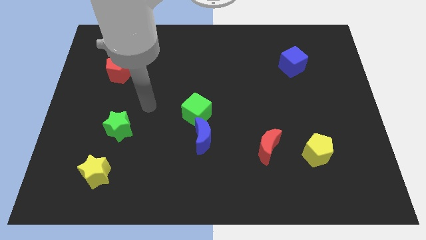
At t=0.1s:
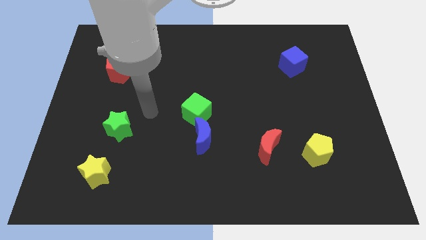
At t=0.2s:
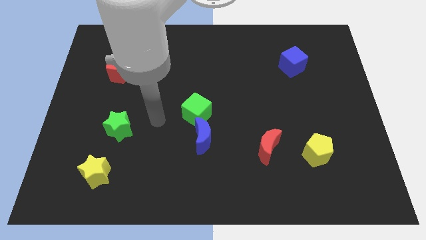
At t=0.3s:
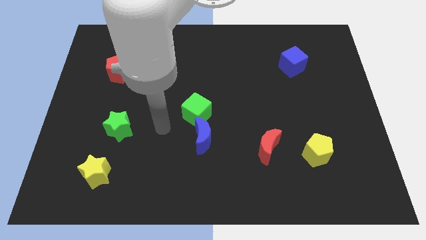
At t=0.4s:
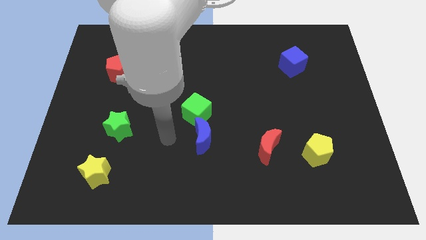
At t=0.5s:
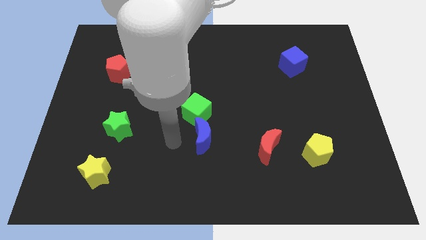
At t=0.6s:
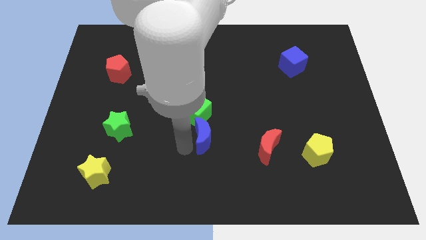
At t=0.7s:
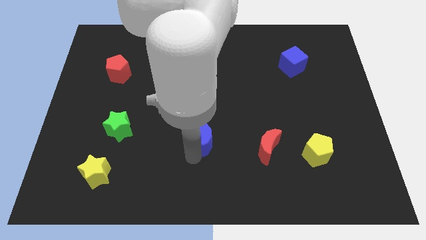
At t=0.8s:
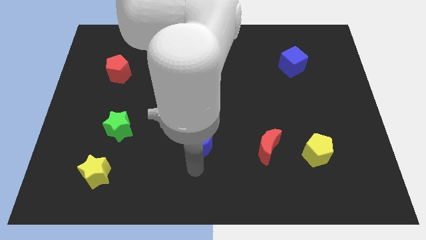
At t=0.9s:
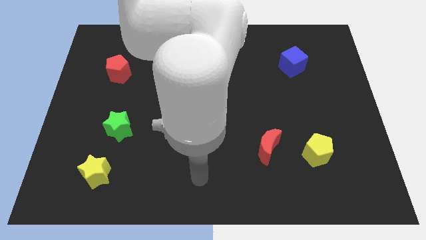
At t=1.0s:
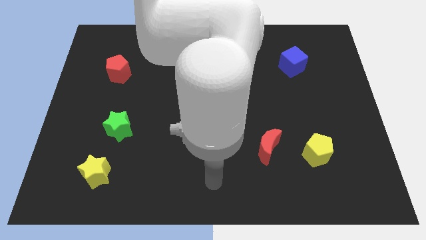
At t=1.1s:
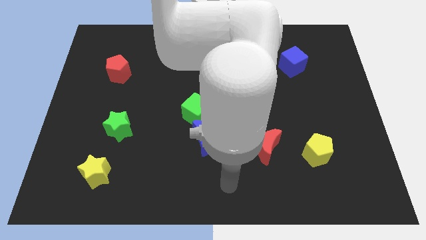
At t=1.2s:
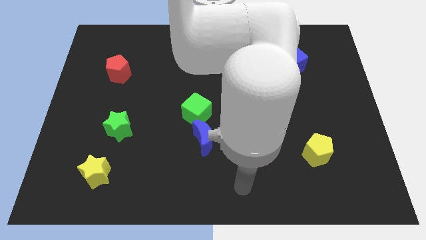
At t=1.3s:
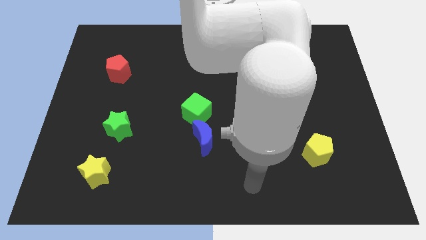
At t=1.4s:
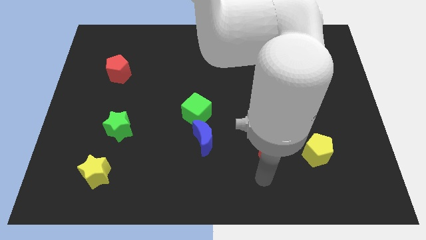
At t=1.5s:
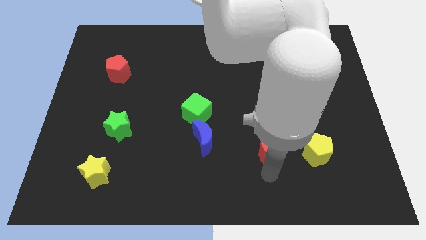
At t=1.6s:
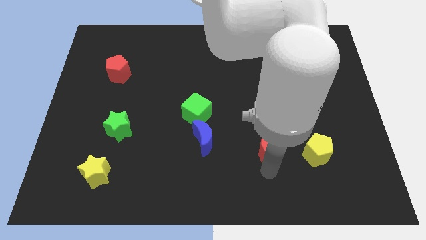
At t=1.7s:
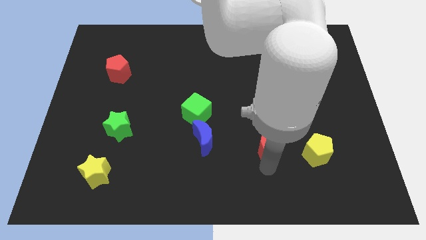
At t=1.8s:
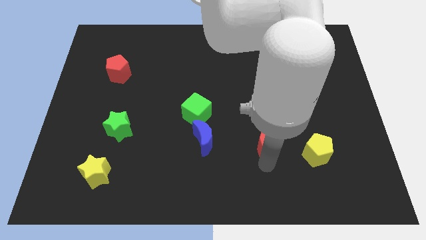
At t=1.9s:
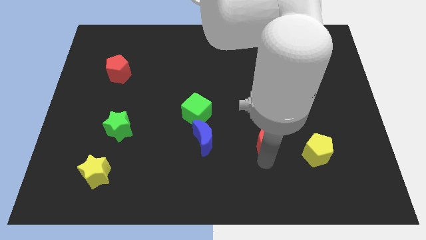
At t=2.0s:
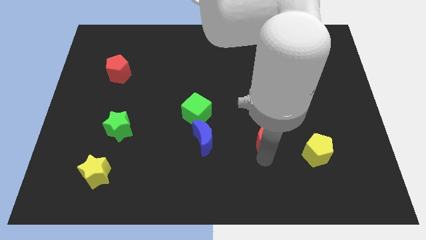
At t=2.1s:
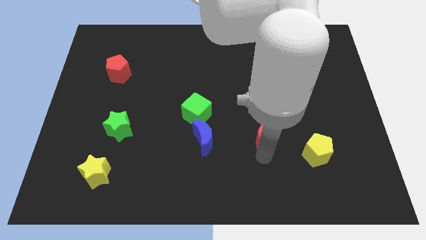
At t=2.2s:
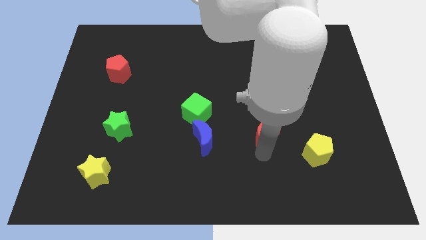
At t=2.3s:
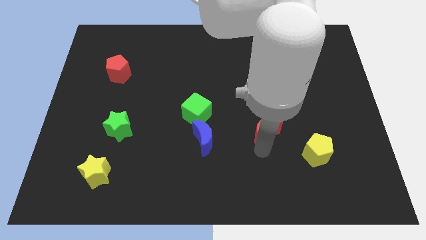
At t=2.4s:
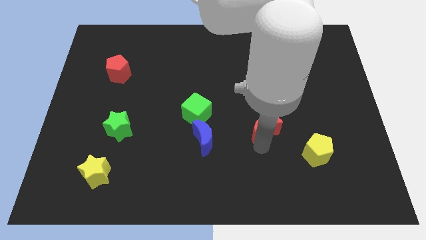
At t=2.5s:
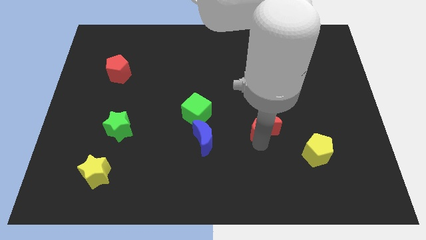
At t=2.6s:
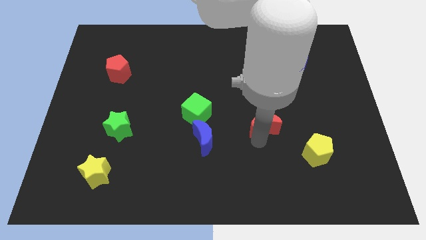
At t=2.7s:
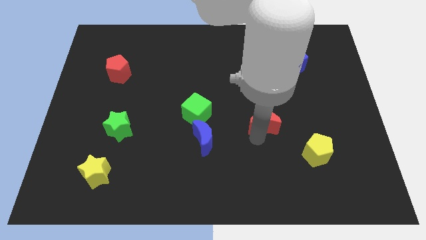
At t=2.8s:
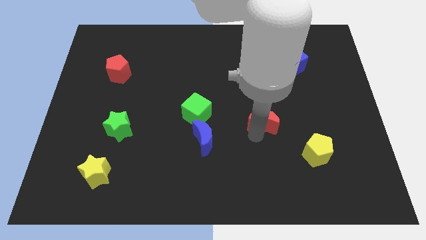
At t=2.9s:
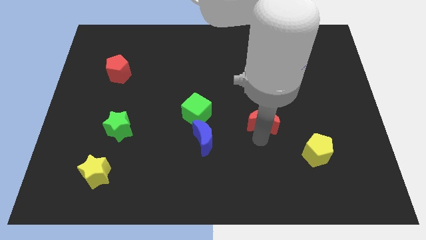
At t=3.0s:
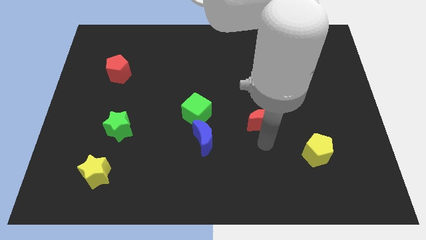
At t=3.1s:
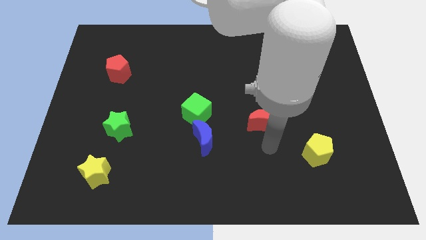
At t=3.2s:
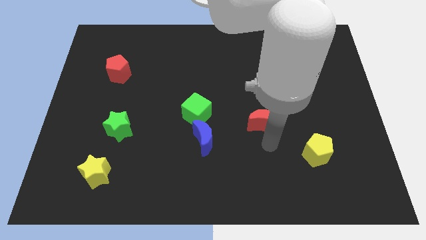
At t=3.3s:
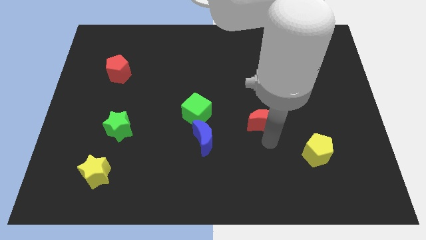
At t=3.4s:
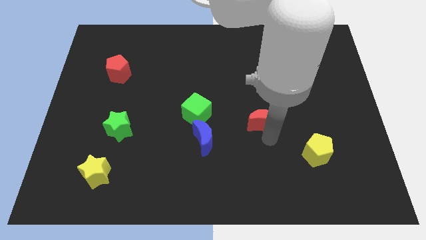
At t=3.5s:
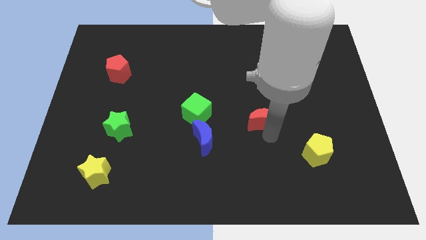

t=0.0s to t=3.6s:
slightly slide the red moon upwards

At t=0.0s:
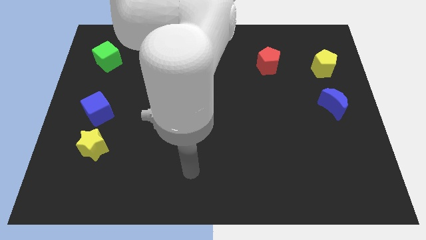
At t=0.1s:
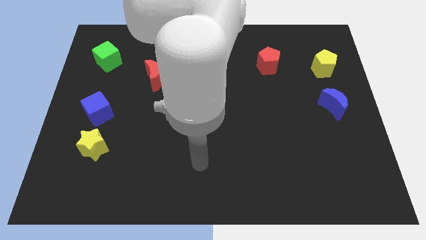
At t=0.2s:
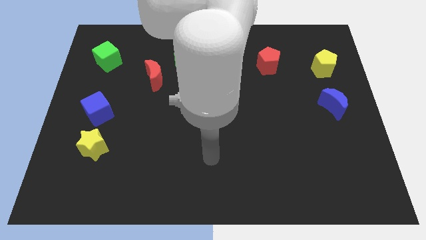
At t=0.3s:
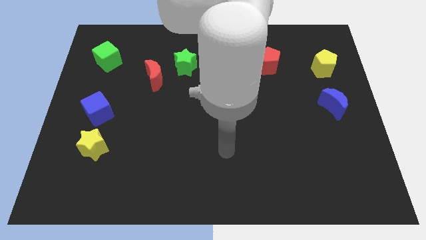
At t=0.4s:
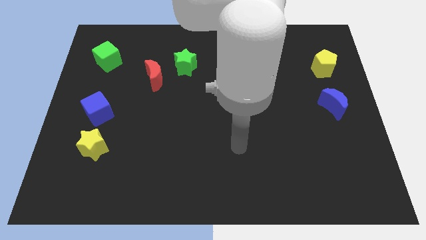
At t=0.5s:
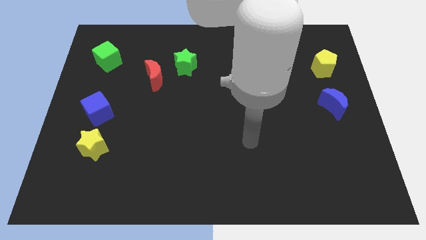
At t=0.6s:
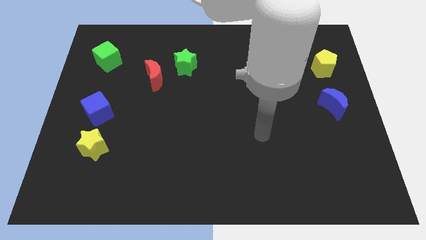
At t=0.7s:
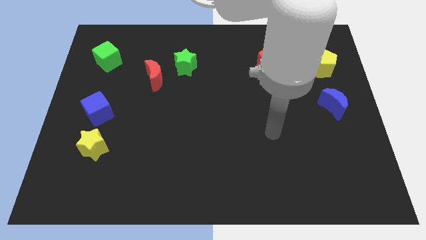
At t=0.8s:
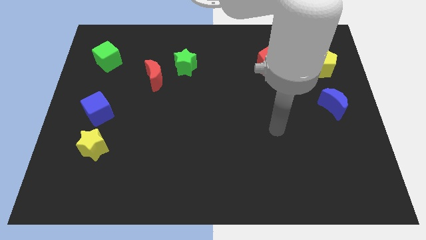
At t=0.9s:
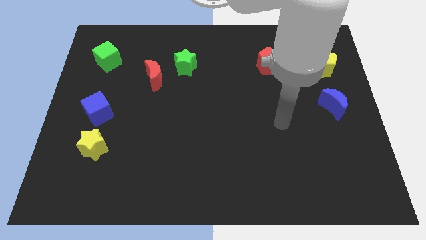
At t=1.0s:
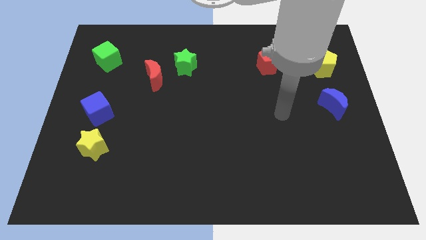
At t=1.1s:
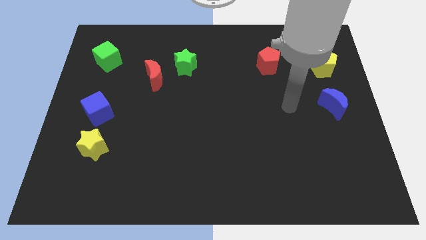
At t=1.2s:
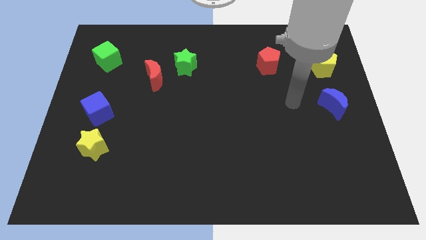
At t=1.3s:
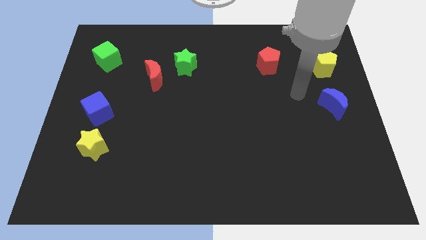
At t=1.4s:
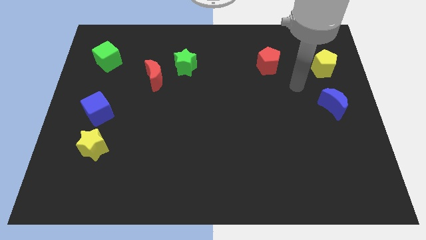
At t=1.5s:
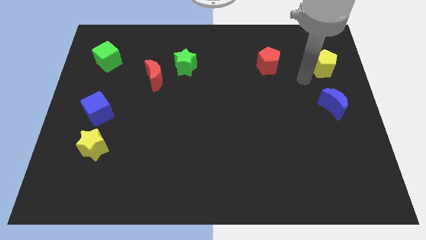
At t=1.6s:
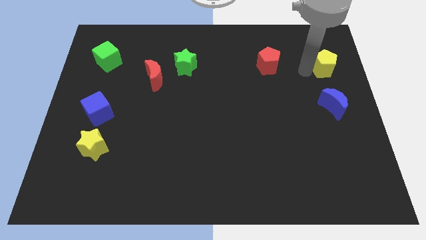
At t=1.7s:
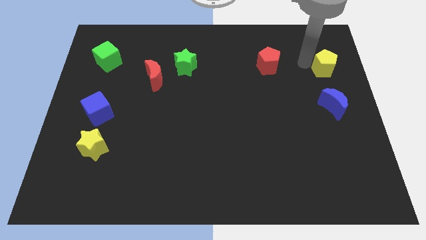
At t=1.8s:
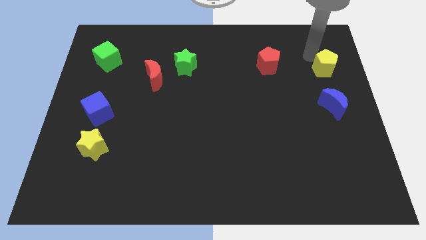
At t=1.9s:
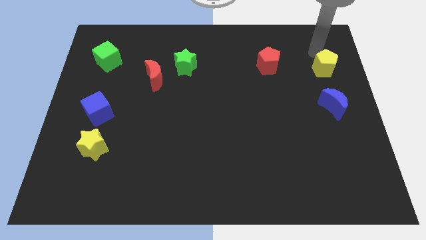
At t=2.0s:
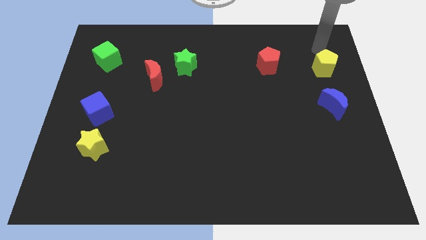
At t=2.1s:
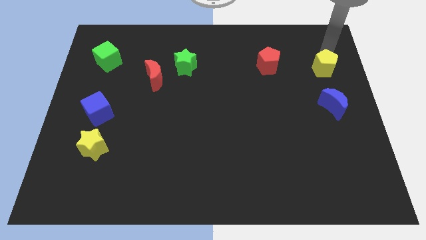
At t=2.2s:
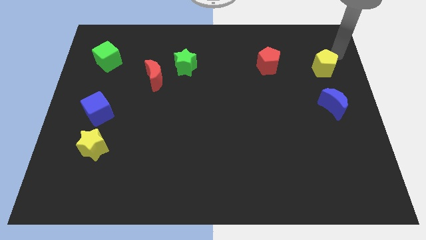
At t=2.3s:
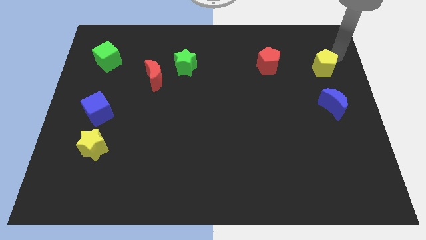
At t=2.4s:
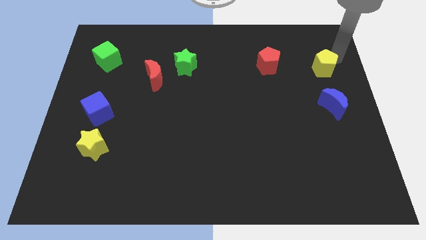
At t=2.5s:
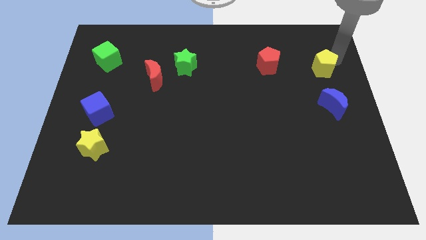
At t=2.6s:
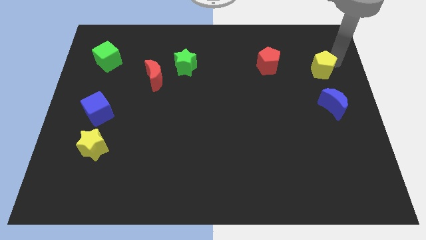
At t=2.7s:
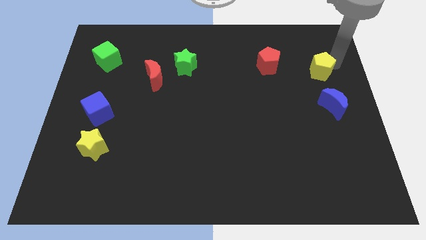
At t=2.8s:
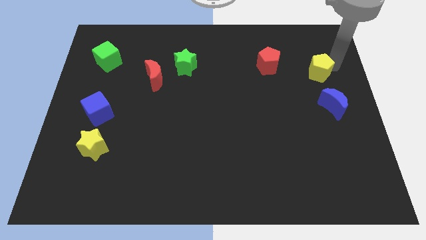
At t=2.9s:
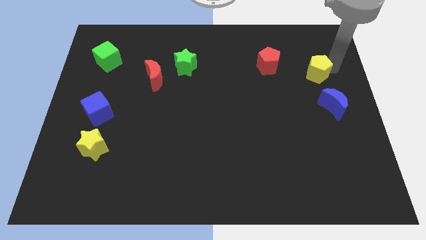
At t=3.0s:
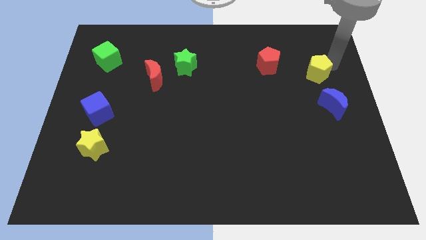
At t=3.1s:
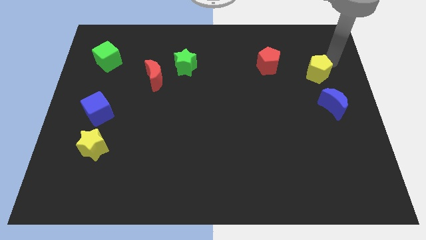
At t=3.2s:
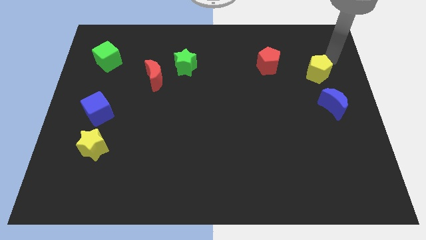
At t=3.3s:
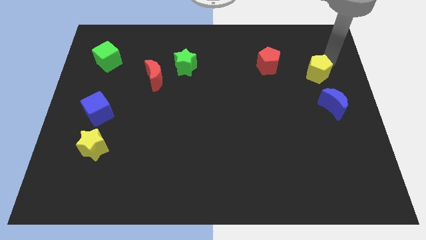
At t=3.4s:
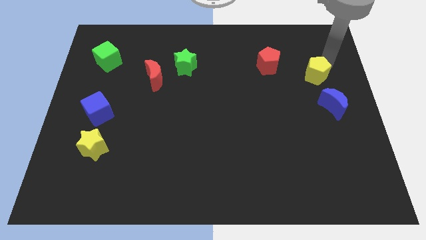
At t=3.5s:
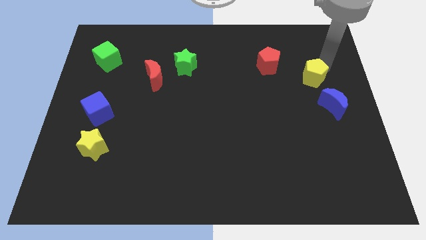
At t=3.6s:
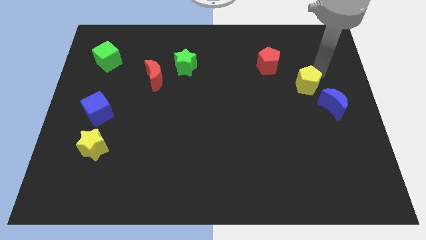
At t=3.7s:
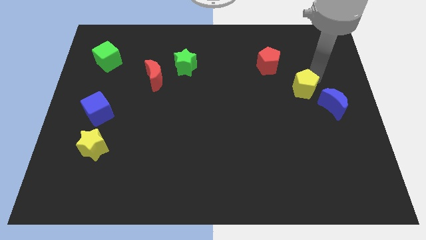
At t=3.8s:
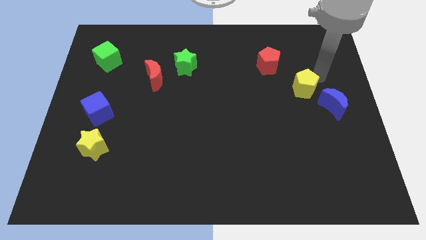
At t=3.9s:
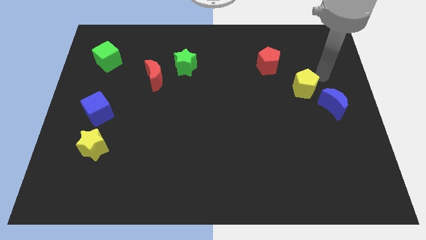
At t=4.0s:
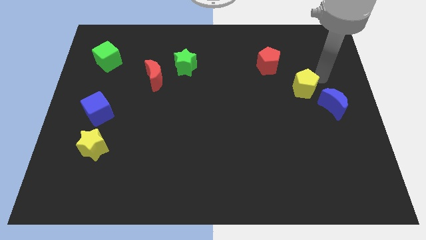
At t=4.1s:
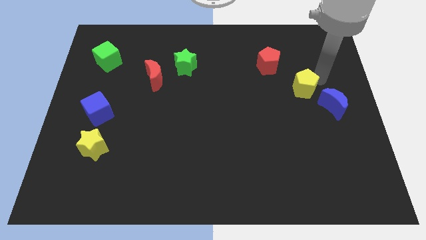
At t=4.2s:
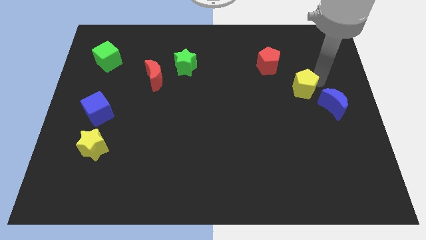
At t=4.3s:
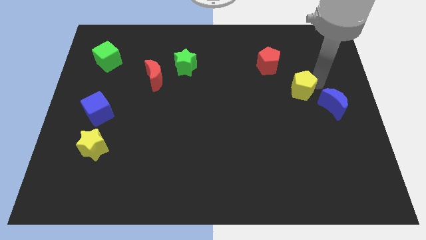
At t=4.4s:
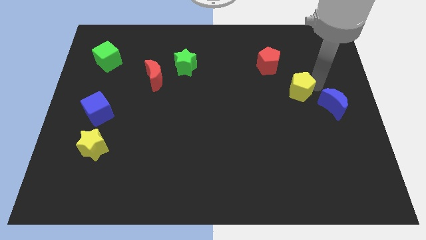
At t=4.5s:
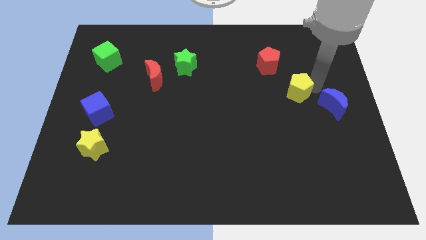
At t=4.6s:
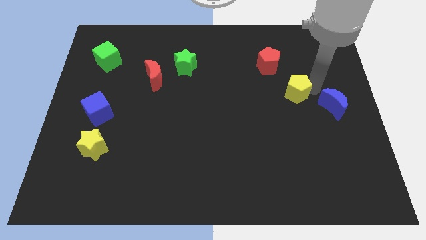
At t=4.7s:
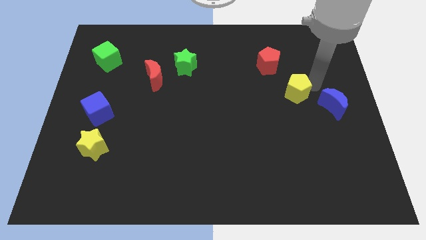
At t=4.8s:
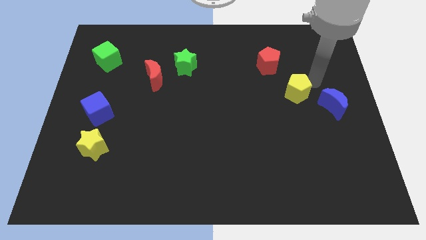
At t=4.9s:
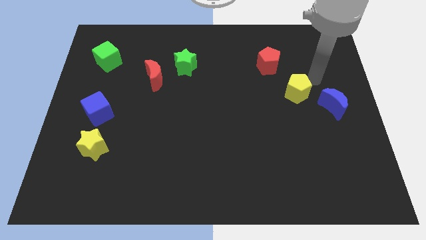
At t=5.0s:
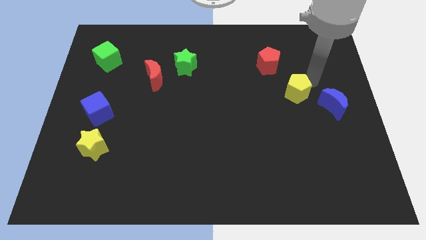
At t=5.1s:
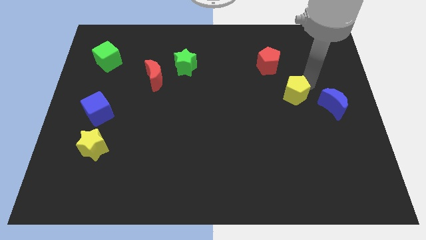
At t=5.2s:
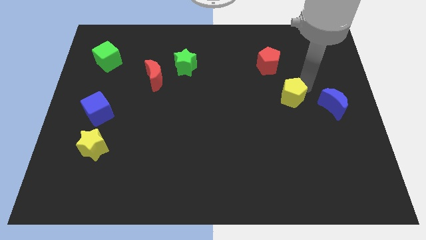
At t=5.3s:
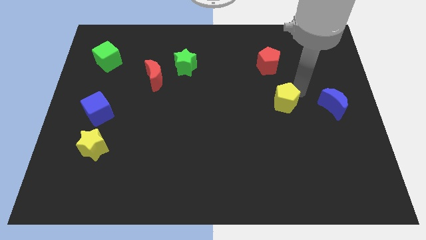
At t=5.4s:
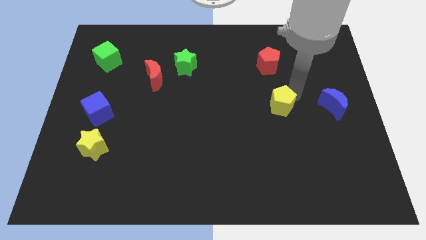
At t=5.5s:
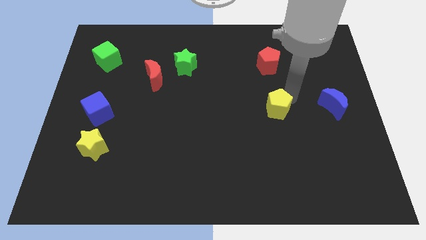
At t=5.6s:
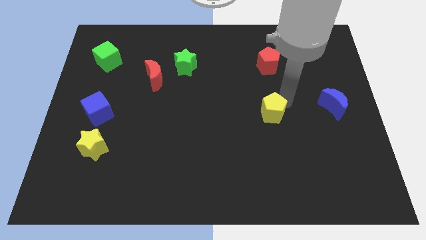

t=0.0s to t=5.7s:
push the yellow pentagon downwards and left
